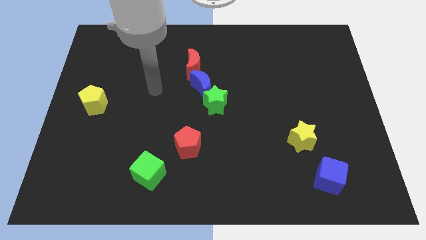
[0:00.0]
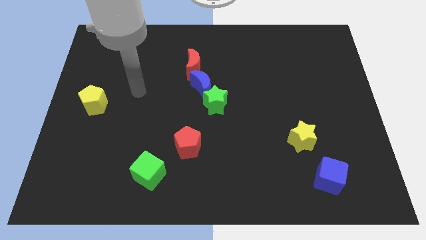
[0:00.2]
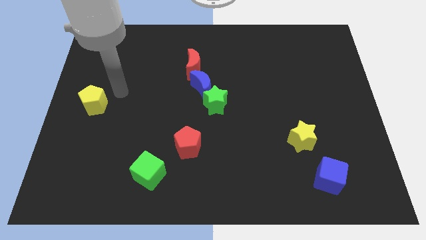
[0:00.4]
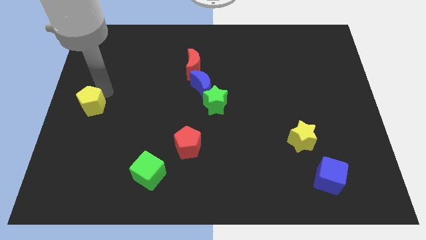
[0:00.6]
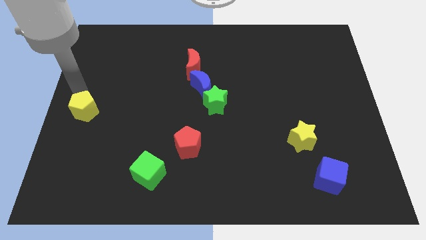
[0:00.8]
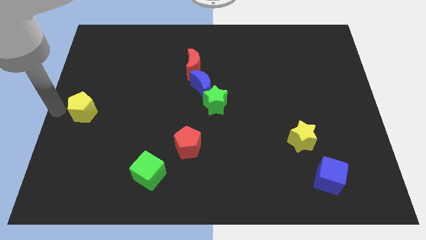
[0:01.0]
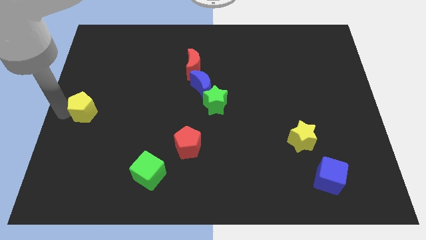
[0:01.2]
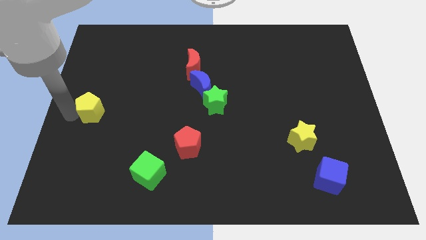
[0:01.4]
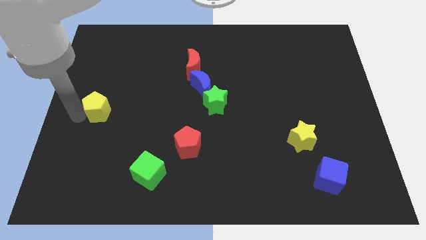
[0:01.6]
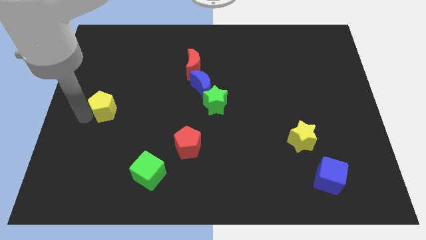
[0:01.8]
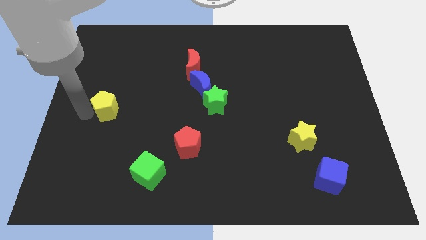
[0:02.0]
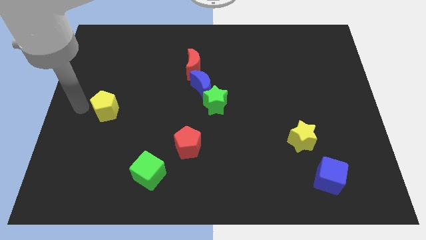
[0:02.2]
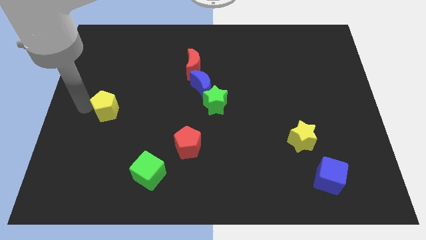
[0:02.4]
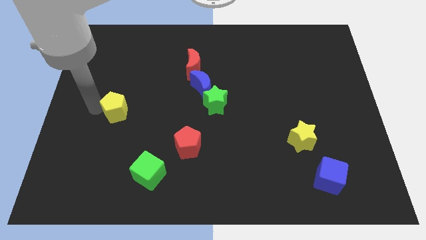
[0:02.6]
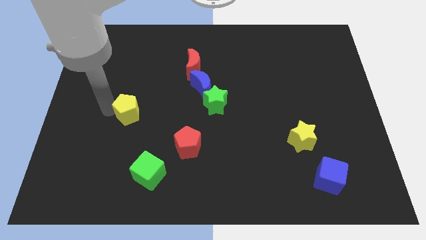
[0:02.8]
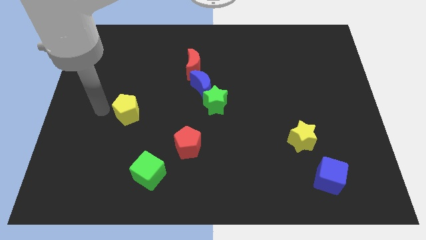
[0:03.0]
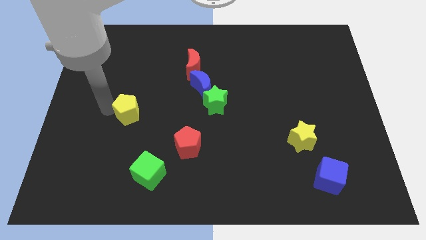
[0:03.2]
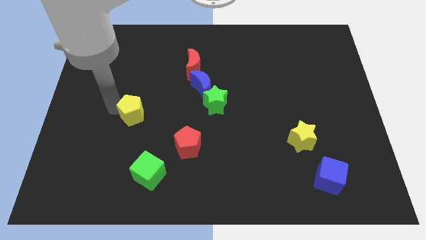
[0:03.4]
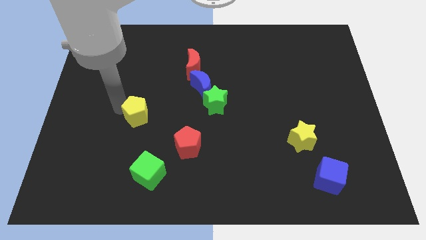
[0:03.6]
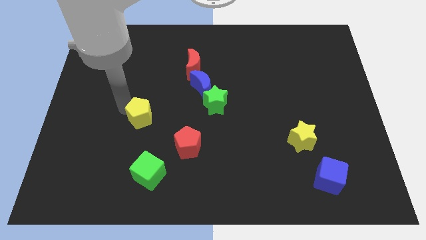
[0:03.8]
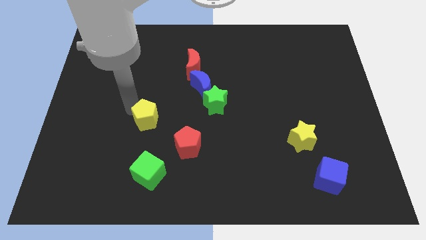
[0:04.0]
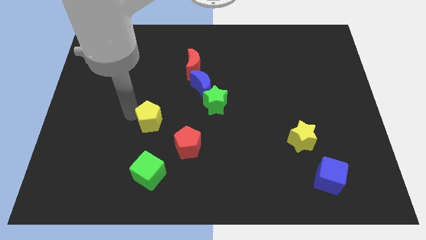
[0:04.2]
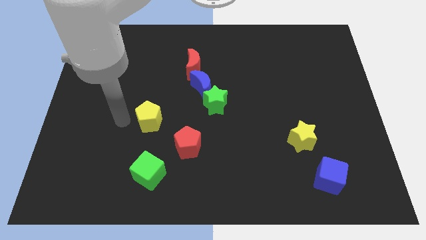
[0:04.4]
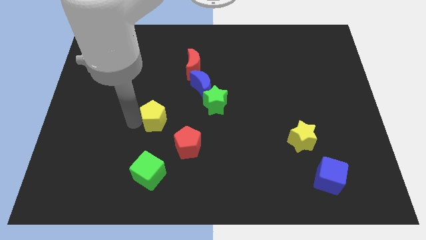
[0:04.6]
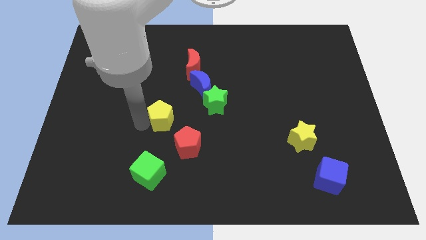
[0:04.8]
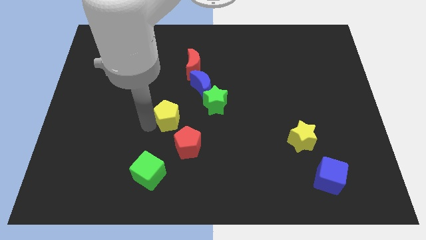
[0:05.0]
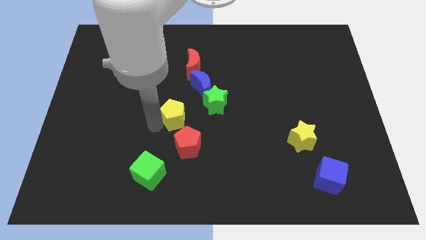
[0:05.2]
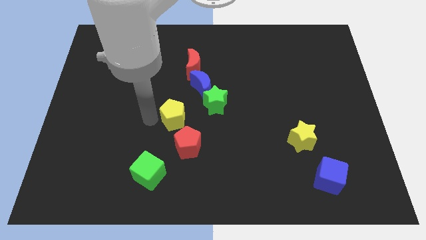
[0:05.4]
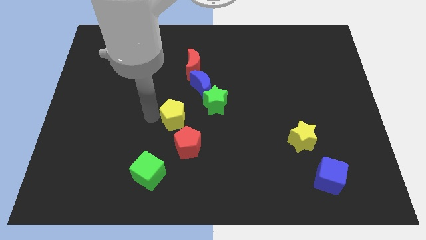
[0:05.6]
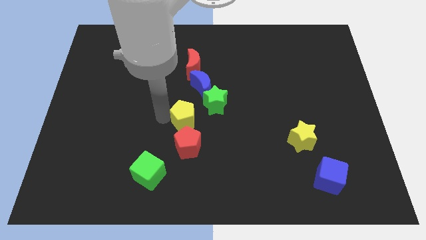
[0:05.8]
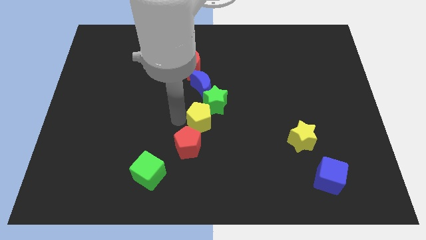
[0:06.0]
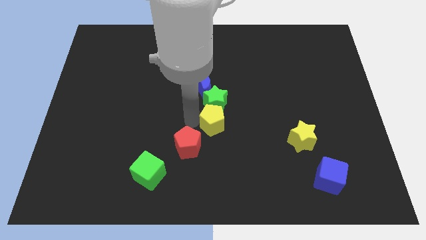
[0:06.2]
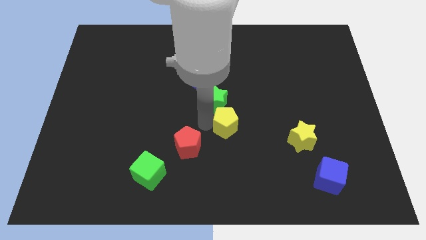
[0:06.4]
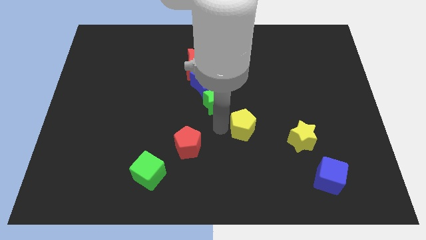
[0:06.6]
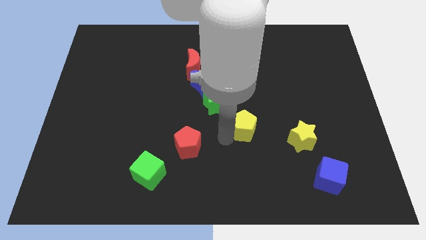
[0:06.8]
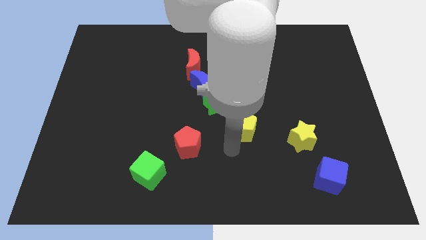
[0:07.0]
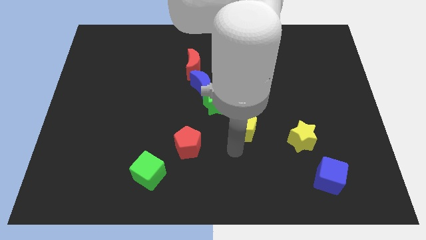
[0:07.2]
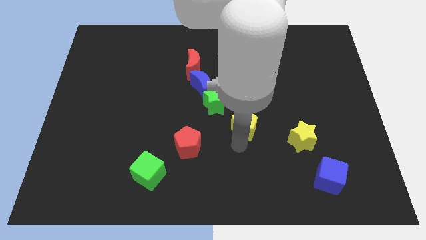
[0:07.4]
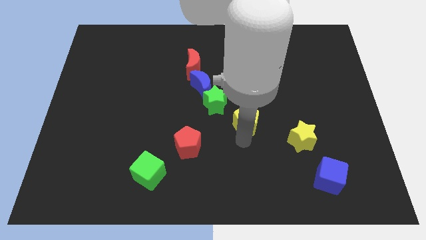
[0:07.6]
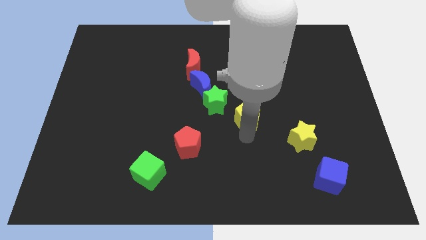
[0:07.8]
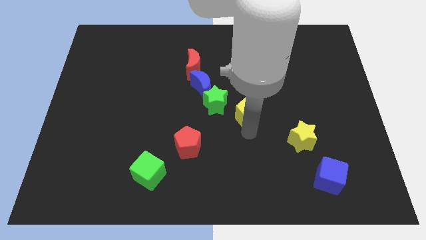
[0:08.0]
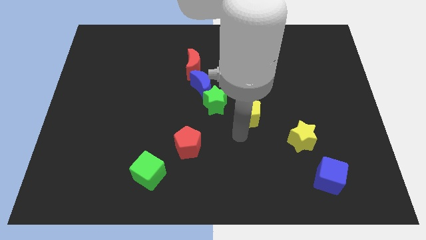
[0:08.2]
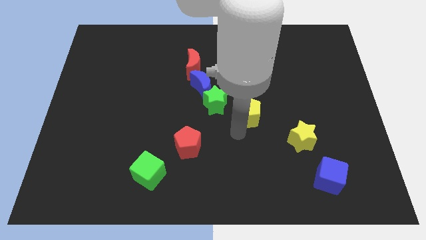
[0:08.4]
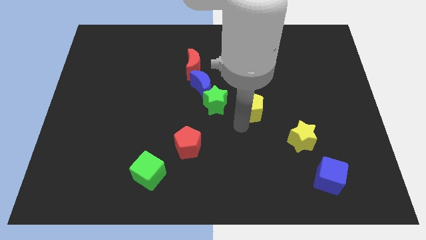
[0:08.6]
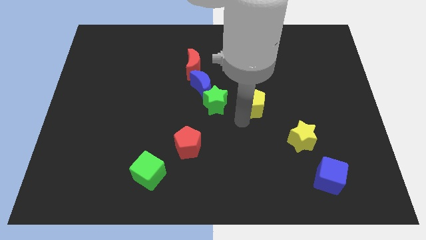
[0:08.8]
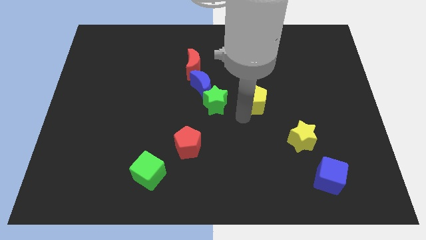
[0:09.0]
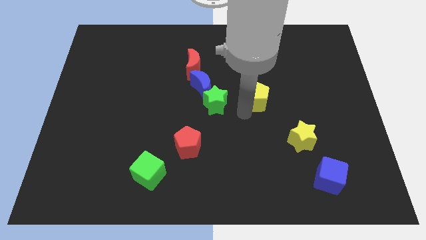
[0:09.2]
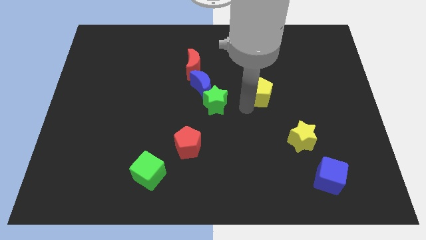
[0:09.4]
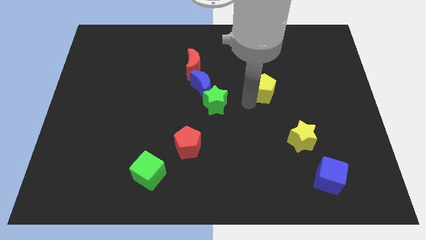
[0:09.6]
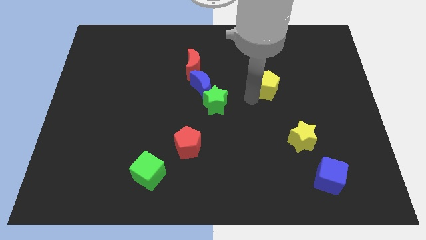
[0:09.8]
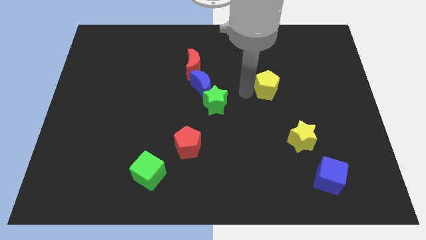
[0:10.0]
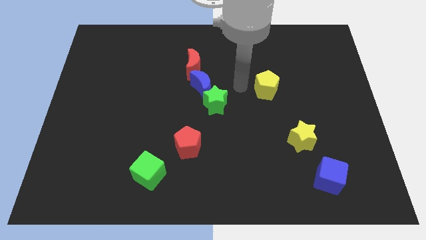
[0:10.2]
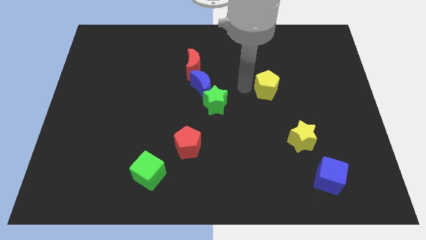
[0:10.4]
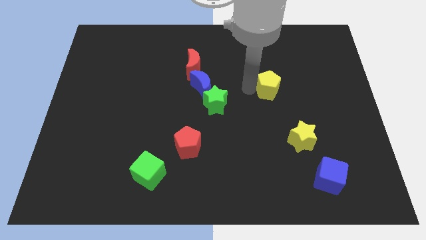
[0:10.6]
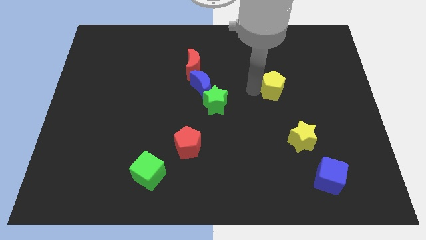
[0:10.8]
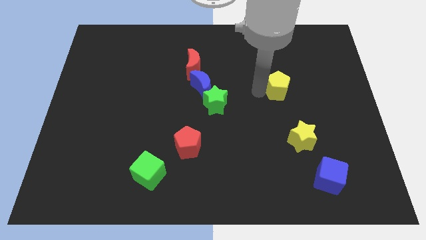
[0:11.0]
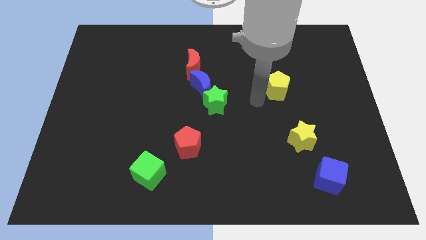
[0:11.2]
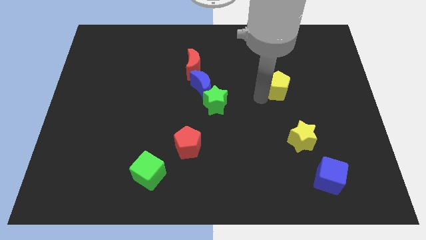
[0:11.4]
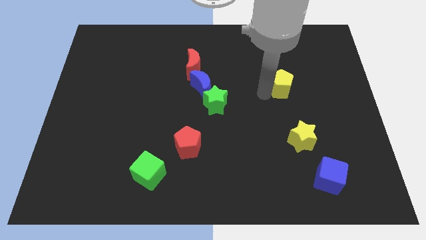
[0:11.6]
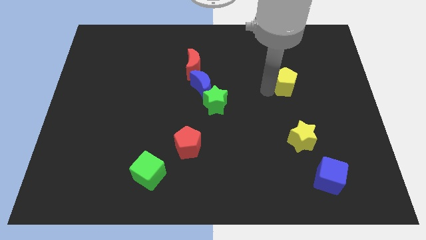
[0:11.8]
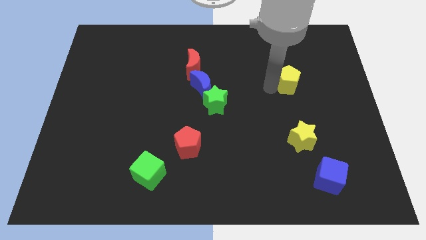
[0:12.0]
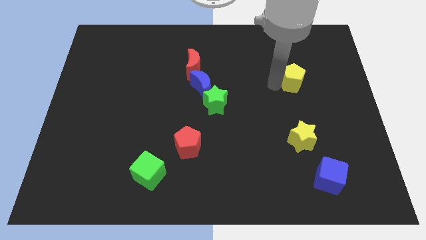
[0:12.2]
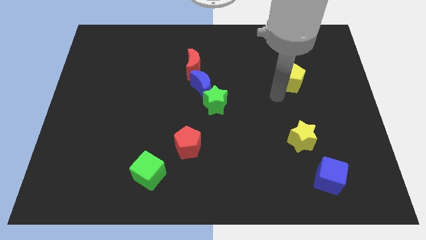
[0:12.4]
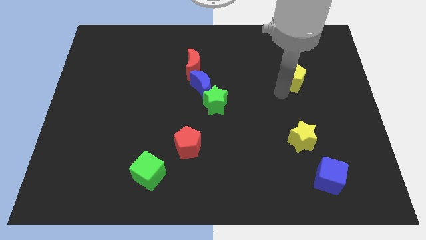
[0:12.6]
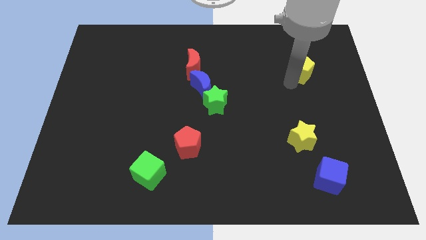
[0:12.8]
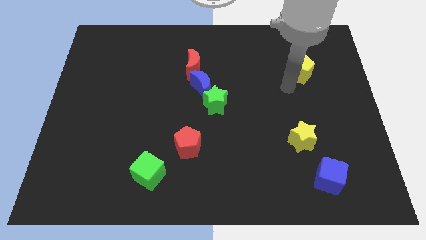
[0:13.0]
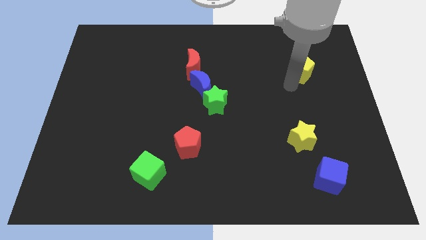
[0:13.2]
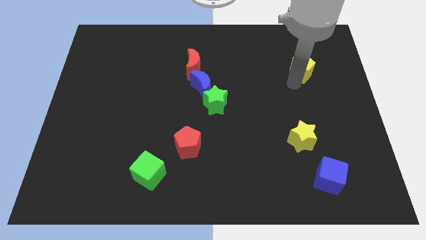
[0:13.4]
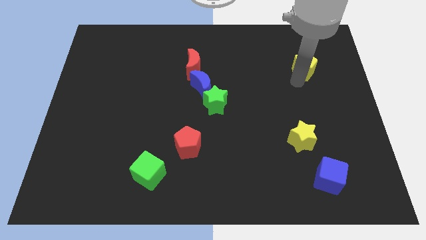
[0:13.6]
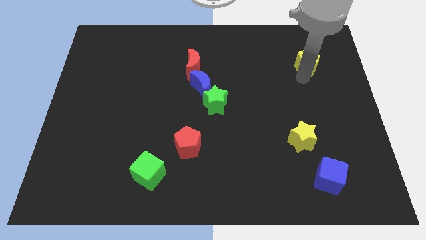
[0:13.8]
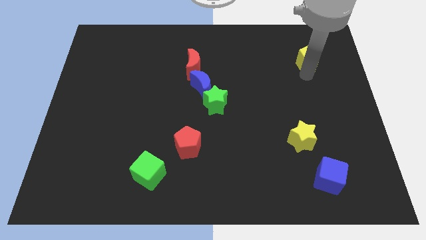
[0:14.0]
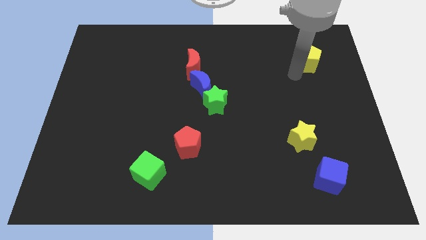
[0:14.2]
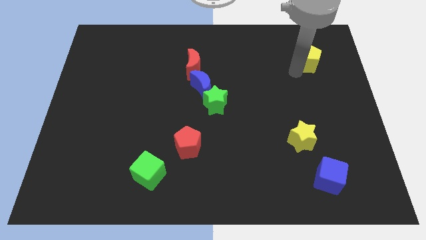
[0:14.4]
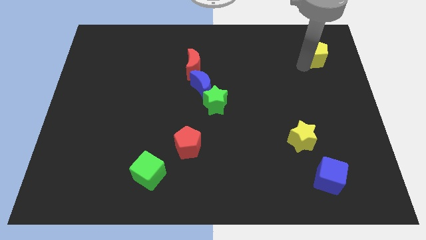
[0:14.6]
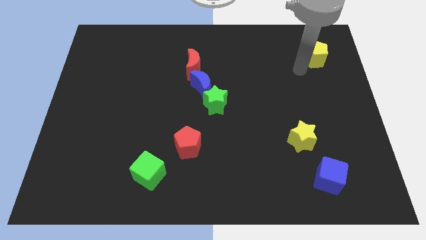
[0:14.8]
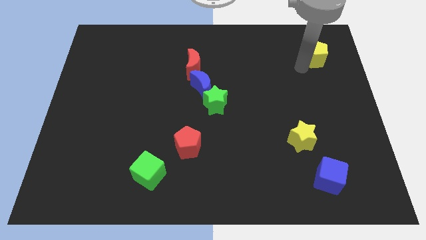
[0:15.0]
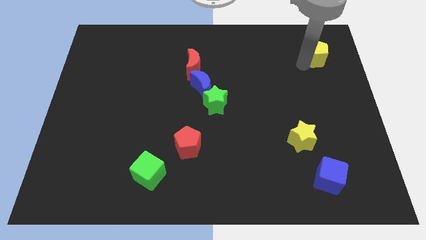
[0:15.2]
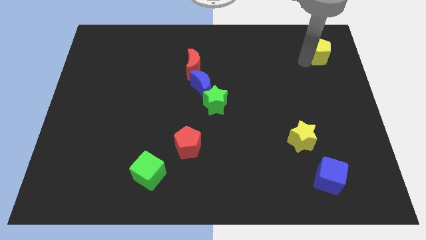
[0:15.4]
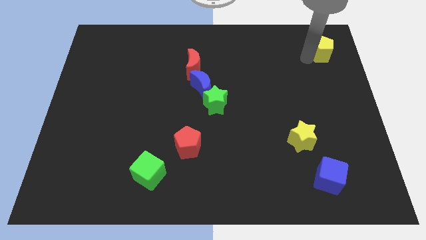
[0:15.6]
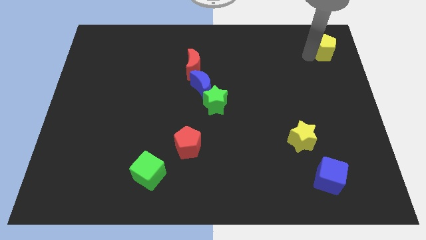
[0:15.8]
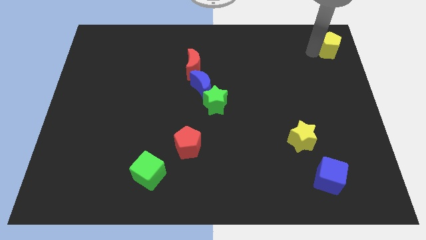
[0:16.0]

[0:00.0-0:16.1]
move the yellow pentagon to the upper right corner
